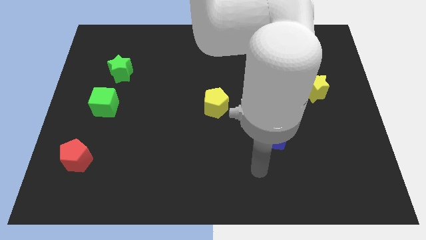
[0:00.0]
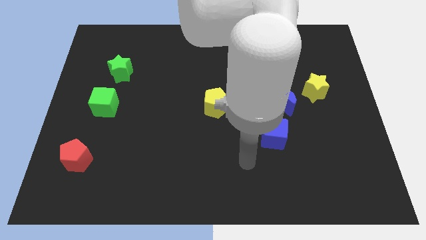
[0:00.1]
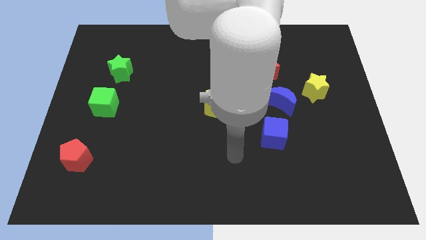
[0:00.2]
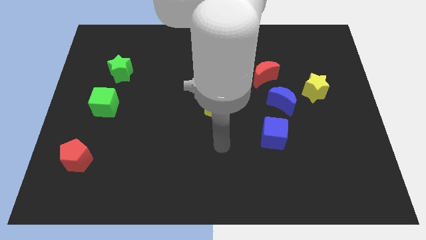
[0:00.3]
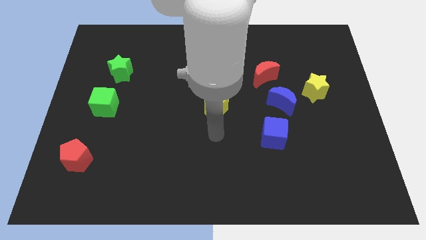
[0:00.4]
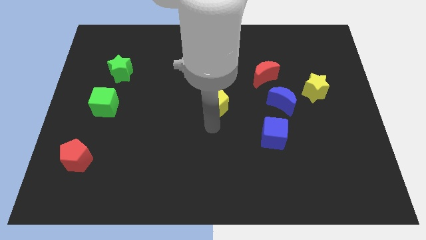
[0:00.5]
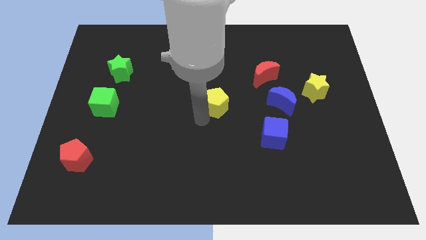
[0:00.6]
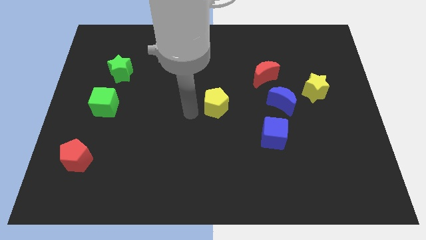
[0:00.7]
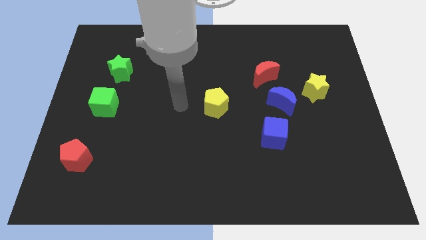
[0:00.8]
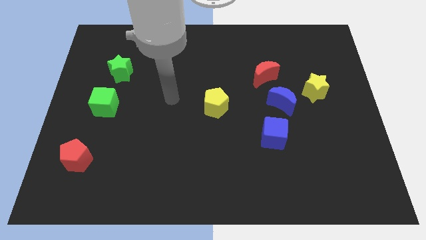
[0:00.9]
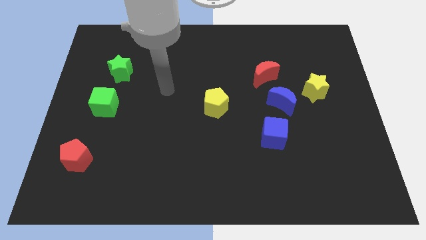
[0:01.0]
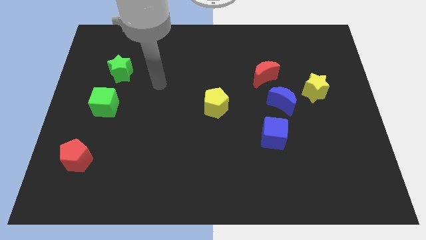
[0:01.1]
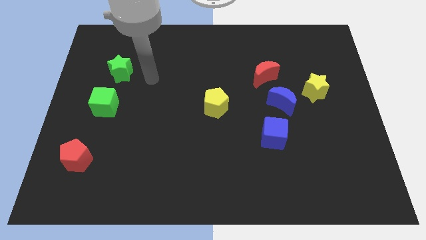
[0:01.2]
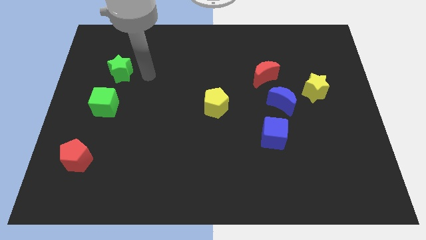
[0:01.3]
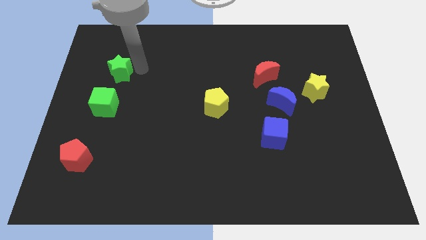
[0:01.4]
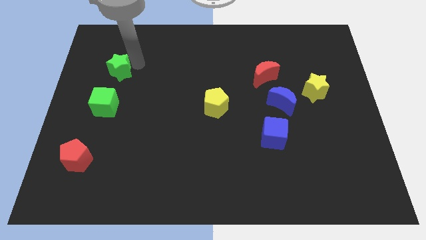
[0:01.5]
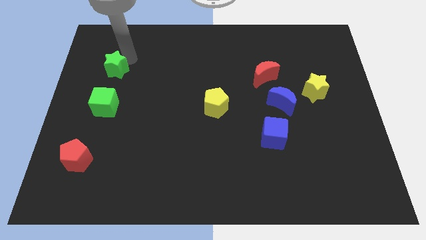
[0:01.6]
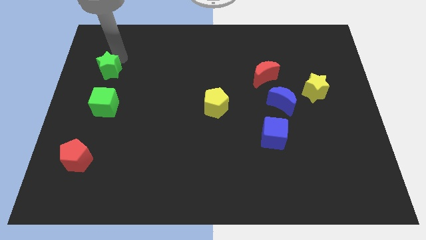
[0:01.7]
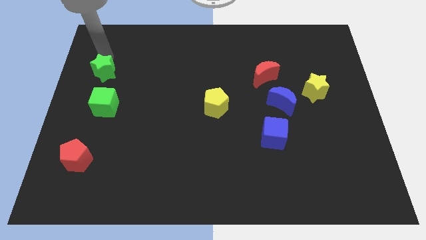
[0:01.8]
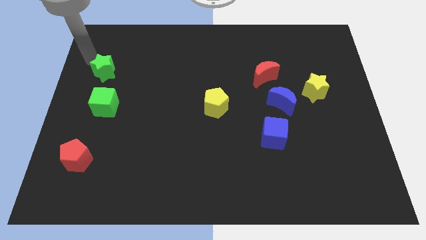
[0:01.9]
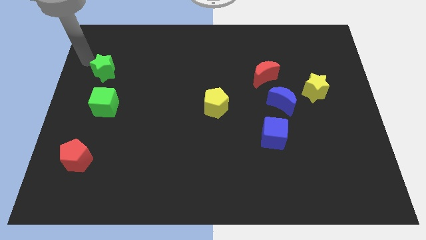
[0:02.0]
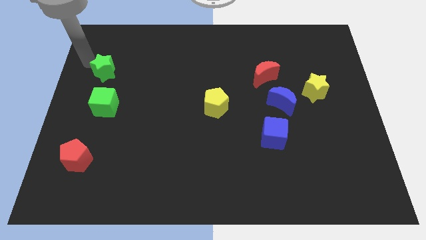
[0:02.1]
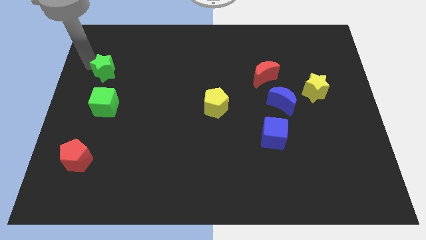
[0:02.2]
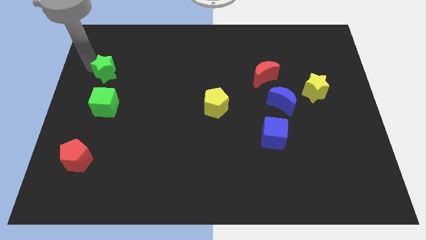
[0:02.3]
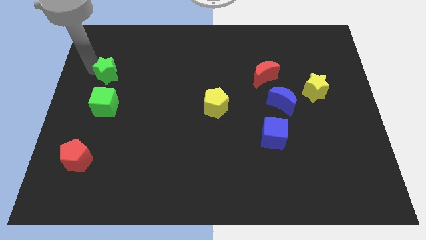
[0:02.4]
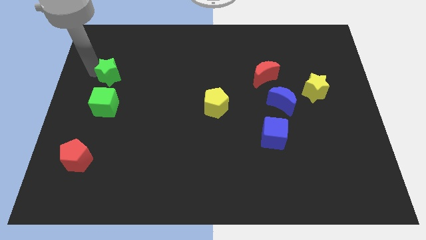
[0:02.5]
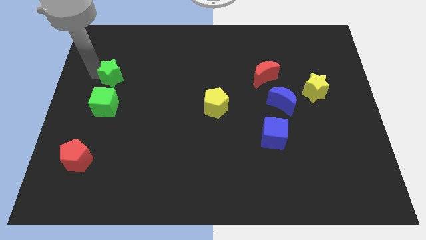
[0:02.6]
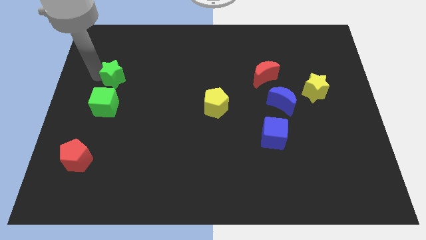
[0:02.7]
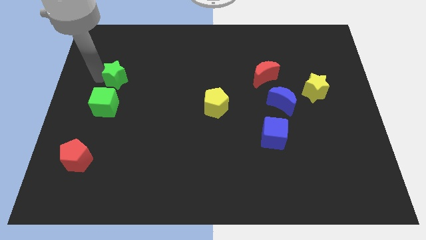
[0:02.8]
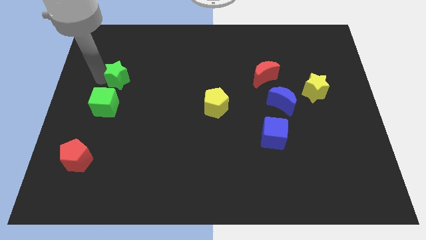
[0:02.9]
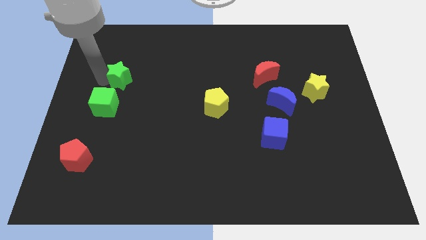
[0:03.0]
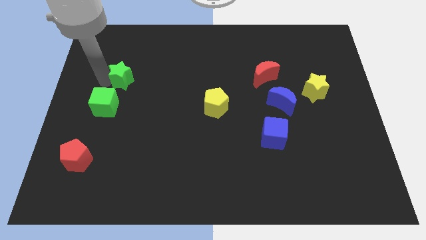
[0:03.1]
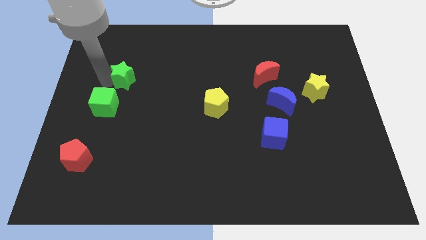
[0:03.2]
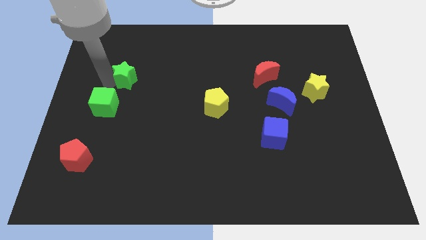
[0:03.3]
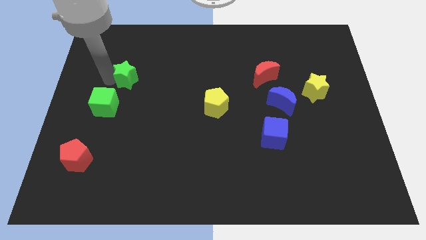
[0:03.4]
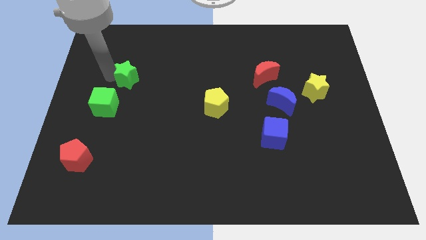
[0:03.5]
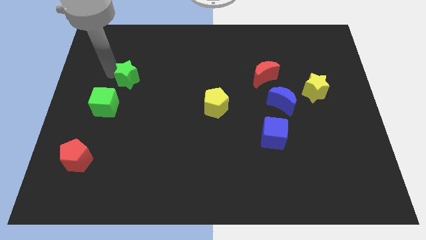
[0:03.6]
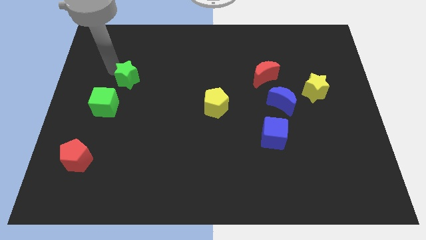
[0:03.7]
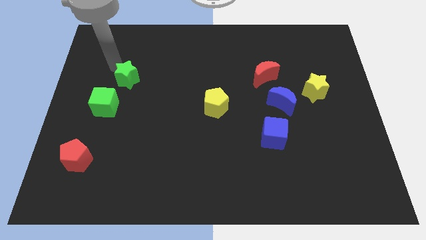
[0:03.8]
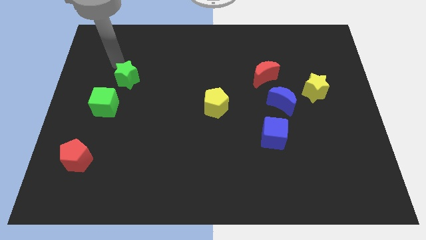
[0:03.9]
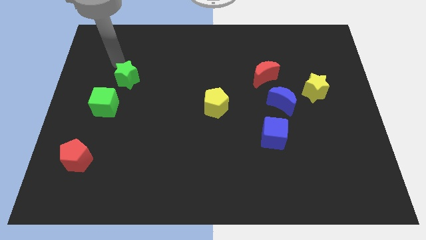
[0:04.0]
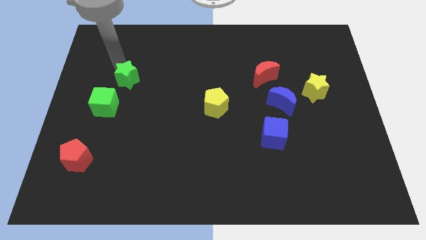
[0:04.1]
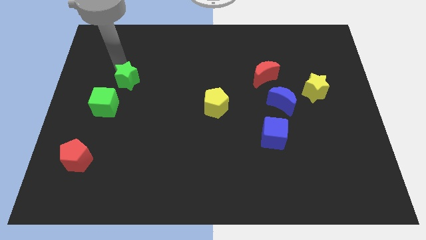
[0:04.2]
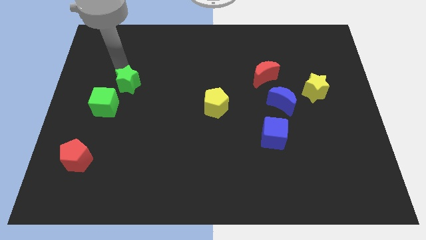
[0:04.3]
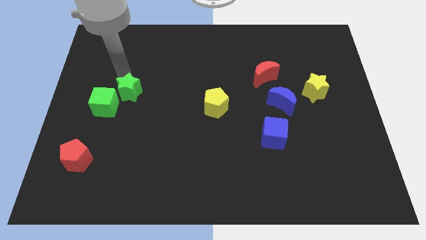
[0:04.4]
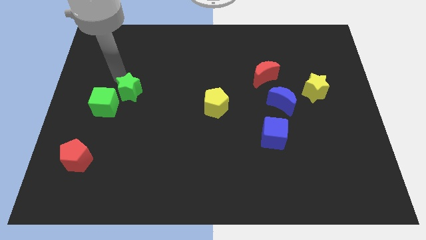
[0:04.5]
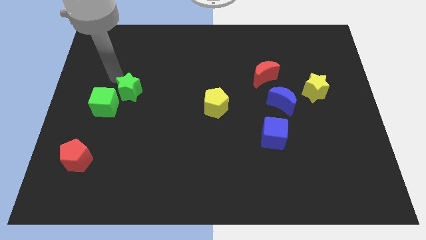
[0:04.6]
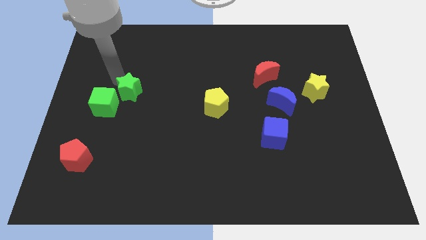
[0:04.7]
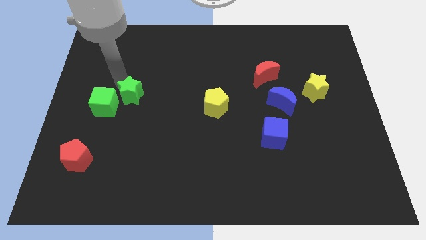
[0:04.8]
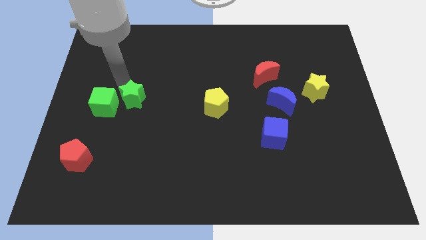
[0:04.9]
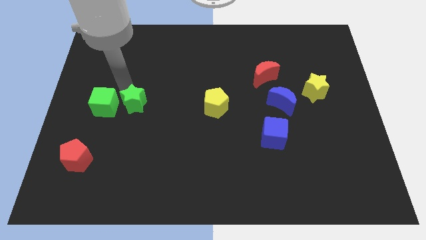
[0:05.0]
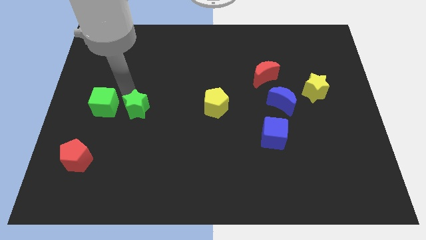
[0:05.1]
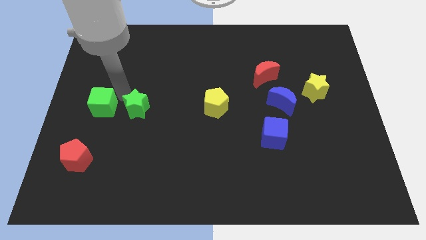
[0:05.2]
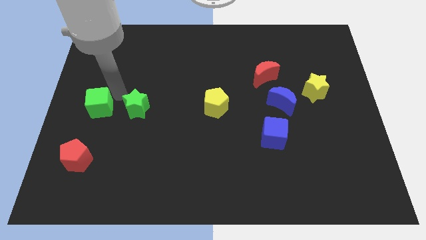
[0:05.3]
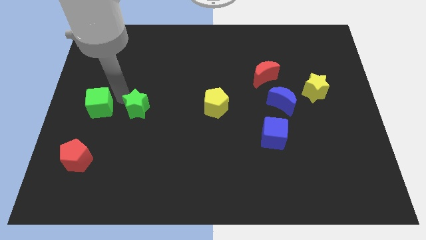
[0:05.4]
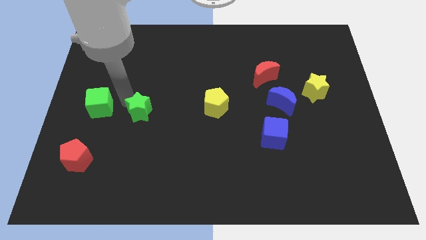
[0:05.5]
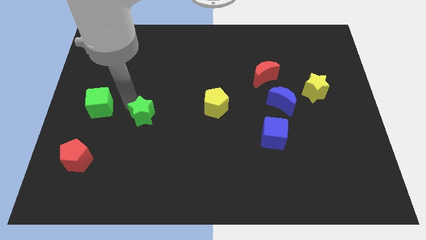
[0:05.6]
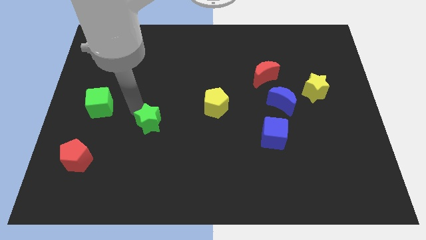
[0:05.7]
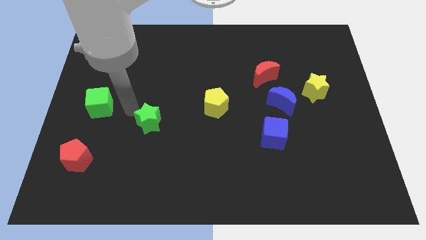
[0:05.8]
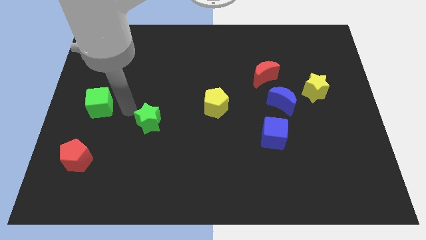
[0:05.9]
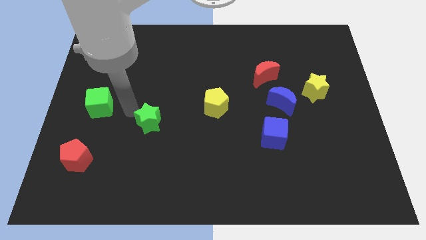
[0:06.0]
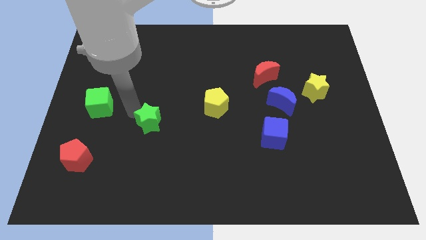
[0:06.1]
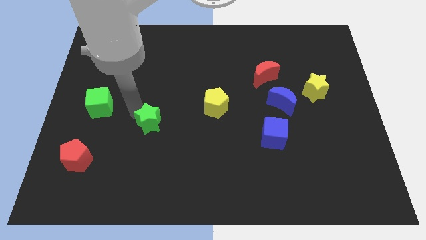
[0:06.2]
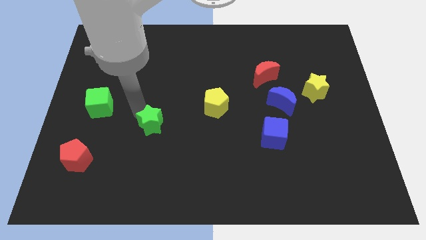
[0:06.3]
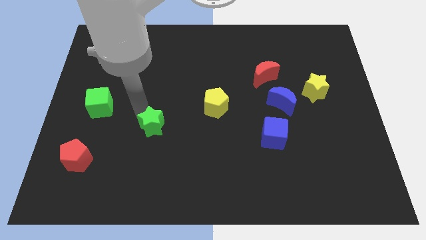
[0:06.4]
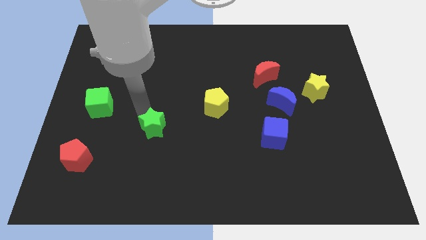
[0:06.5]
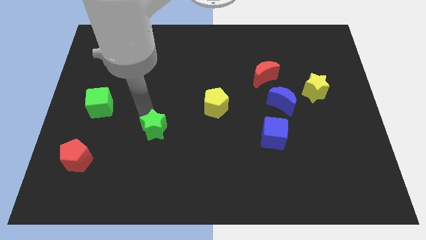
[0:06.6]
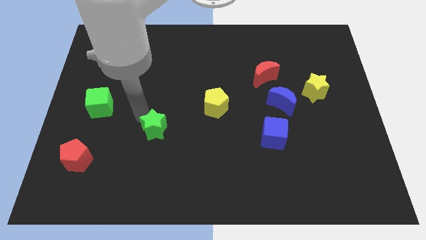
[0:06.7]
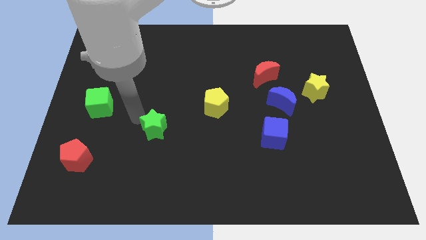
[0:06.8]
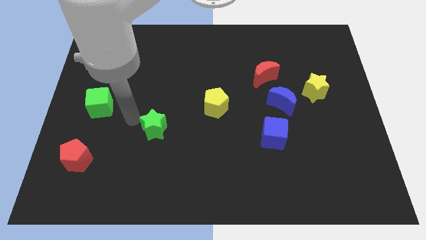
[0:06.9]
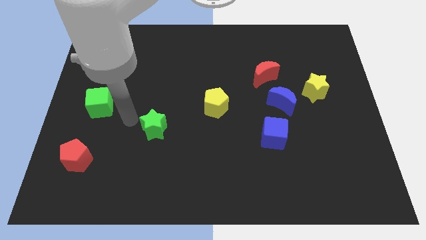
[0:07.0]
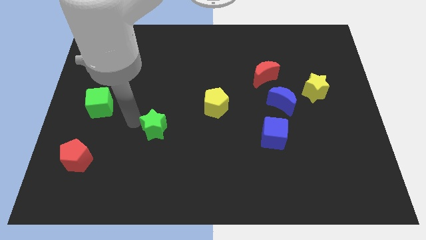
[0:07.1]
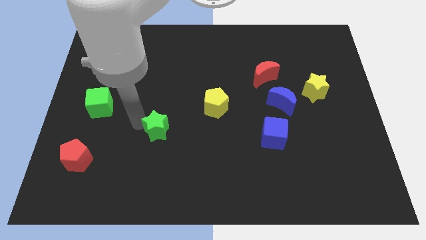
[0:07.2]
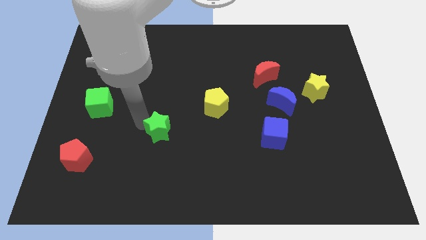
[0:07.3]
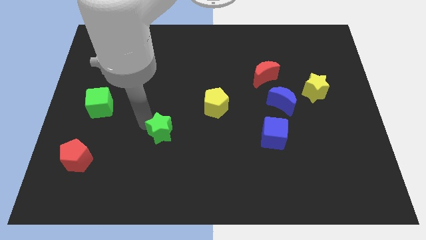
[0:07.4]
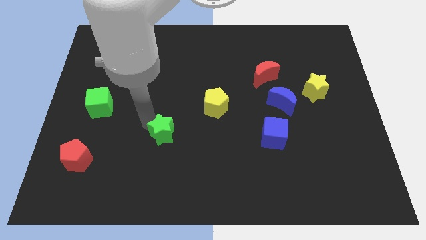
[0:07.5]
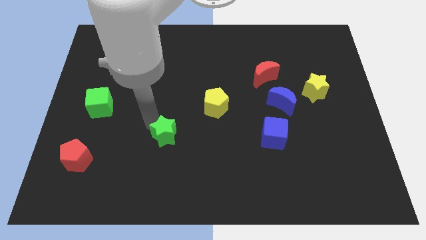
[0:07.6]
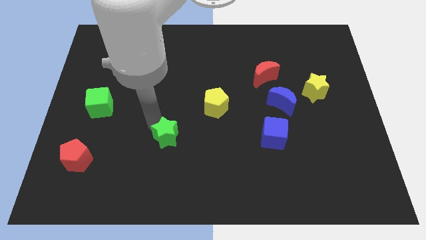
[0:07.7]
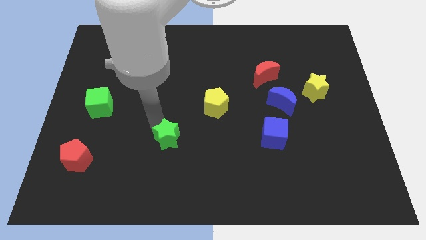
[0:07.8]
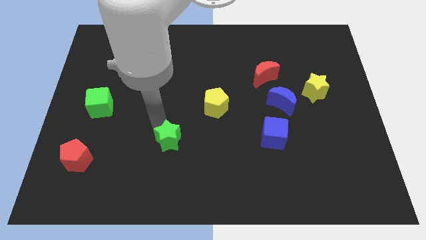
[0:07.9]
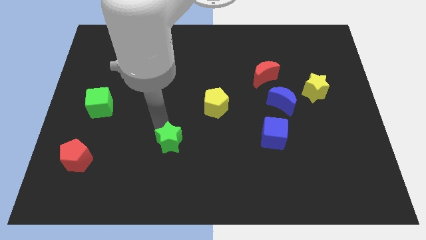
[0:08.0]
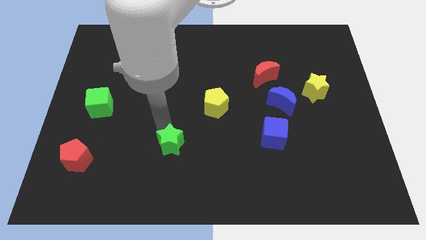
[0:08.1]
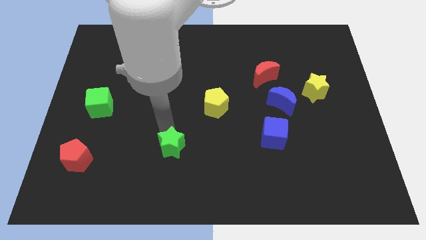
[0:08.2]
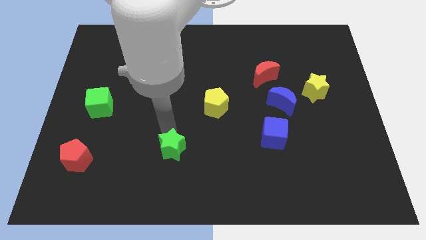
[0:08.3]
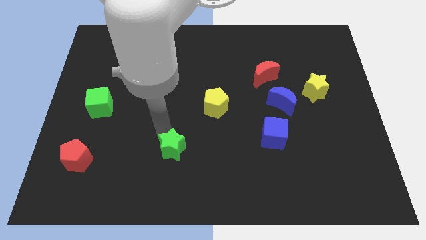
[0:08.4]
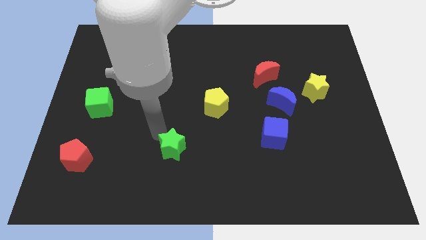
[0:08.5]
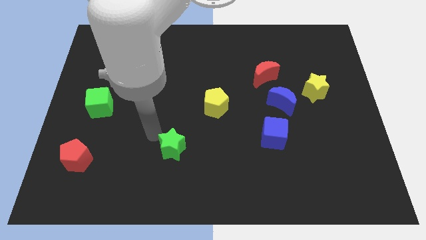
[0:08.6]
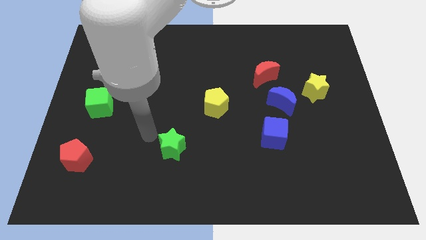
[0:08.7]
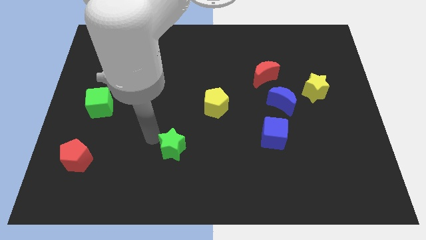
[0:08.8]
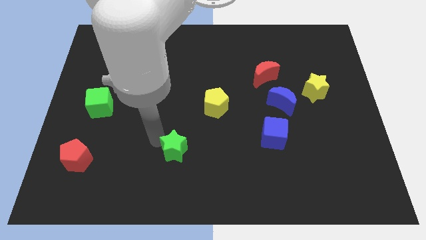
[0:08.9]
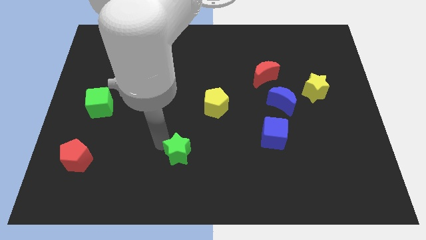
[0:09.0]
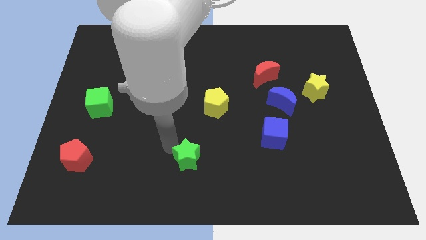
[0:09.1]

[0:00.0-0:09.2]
slide the green star to the bottom
